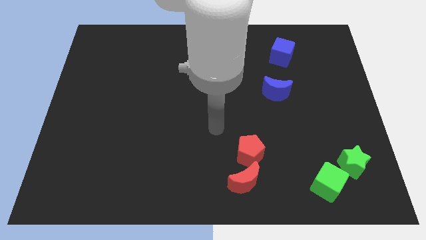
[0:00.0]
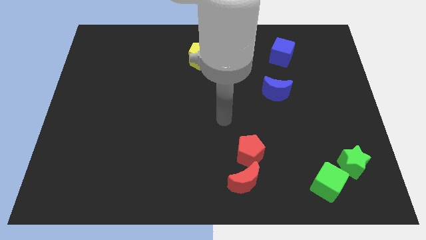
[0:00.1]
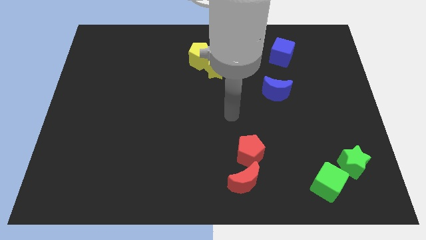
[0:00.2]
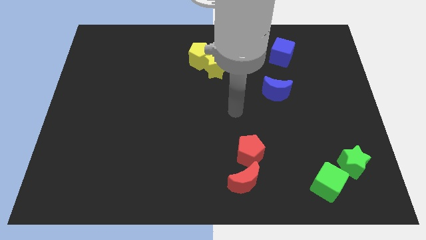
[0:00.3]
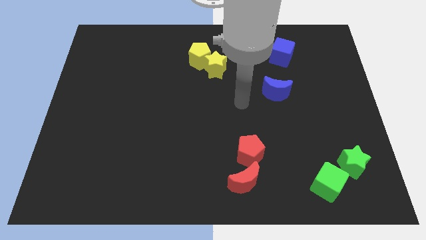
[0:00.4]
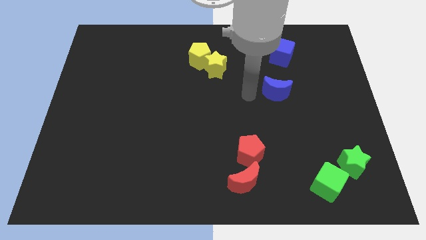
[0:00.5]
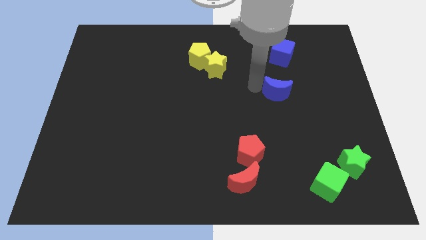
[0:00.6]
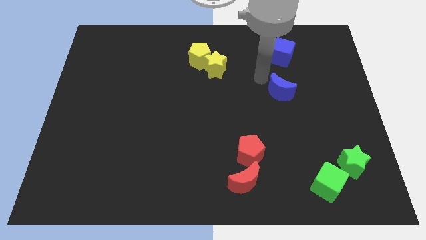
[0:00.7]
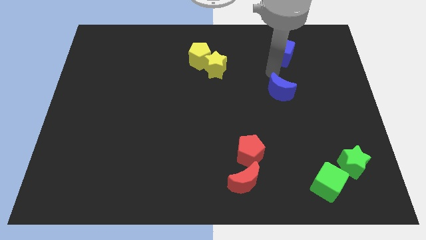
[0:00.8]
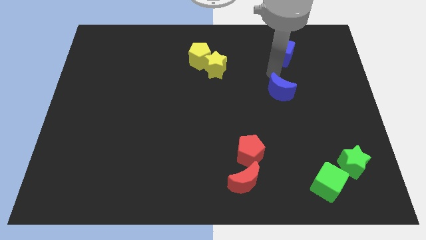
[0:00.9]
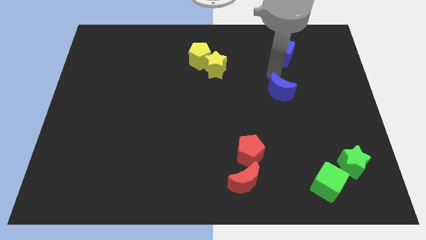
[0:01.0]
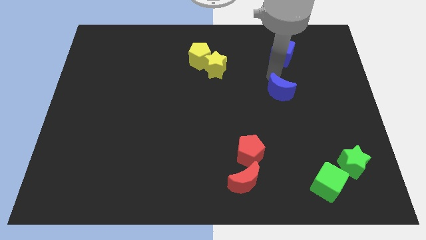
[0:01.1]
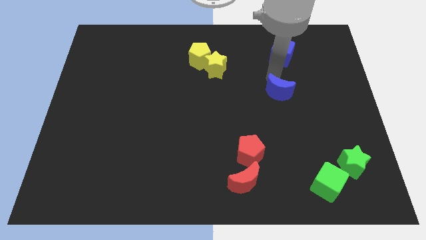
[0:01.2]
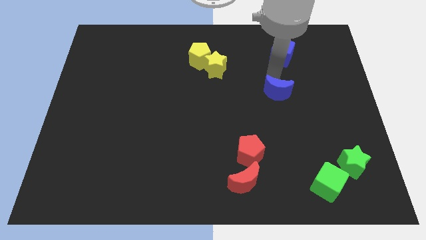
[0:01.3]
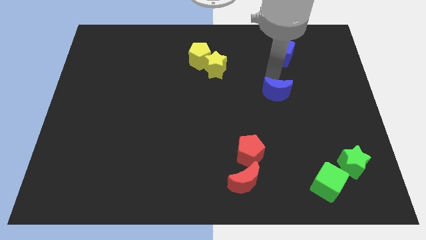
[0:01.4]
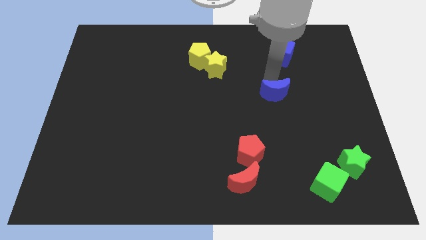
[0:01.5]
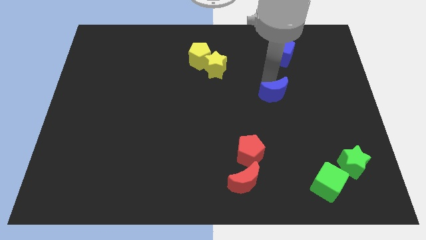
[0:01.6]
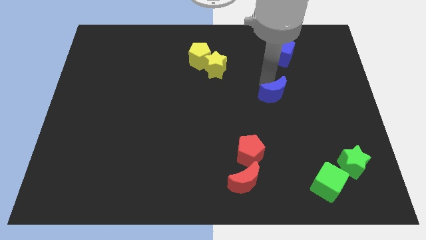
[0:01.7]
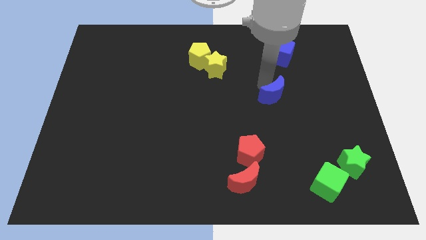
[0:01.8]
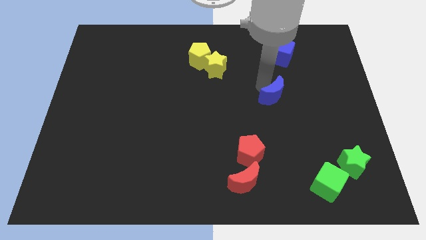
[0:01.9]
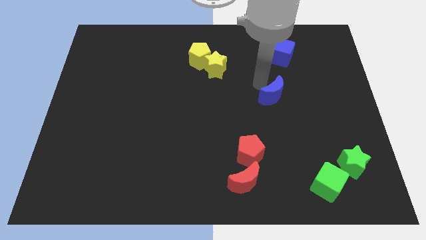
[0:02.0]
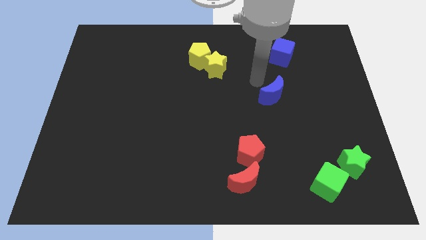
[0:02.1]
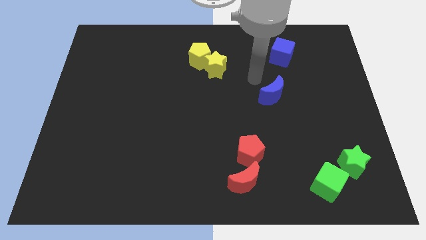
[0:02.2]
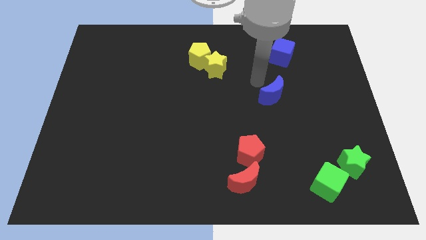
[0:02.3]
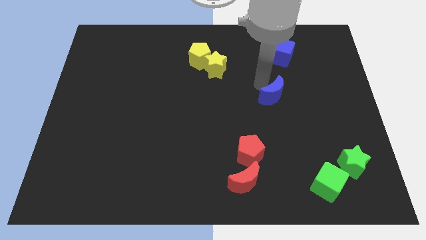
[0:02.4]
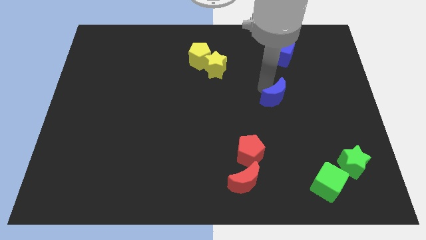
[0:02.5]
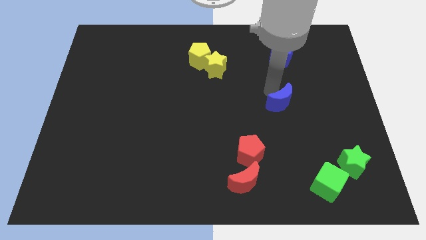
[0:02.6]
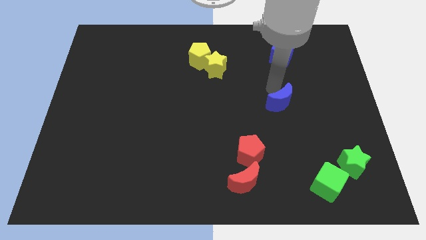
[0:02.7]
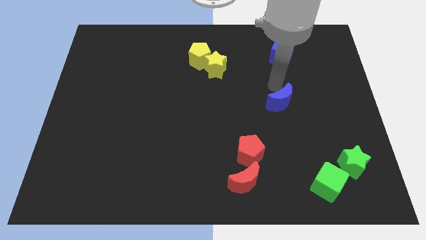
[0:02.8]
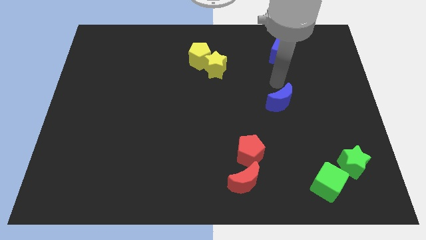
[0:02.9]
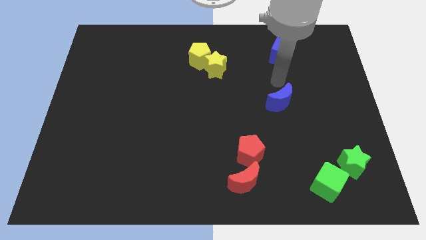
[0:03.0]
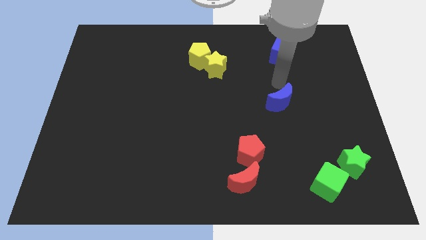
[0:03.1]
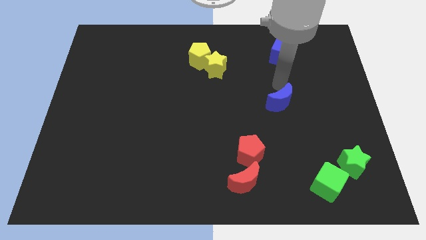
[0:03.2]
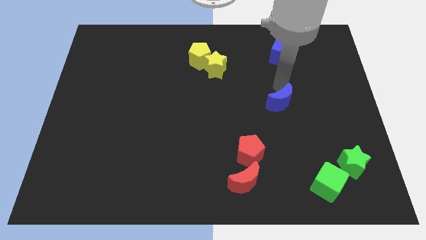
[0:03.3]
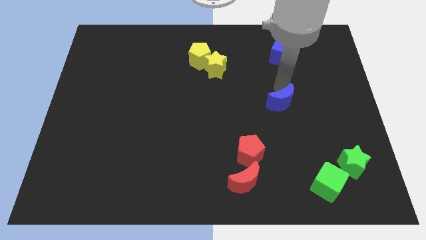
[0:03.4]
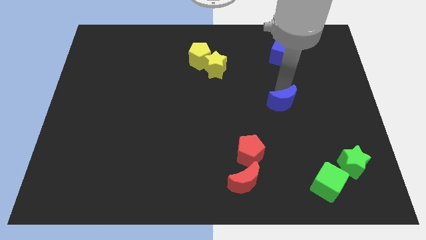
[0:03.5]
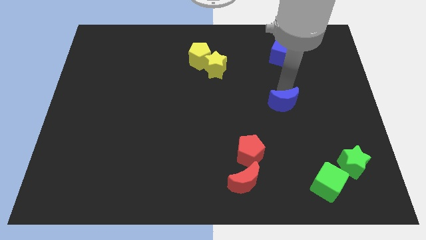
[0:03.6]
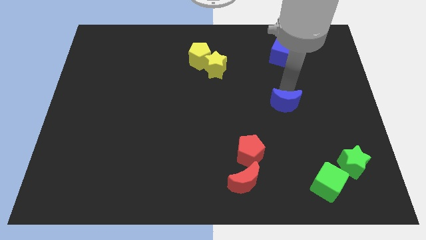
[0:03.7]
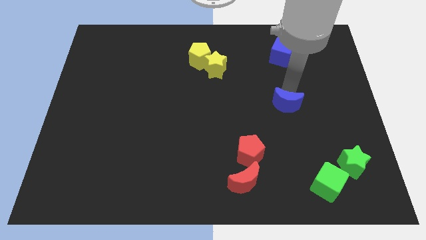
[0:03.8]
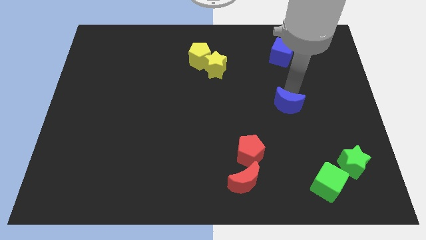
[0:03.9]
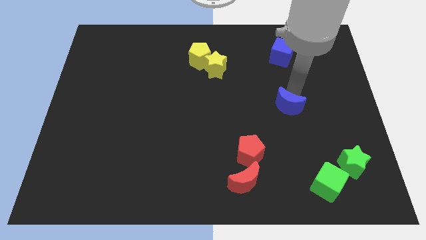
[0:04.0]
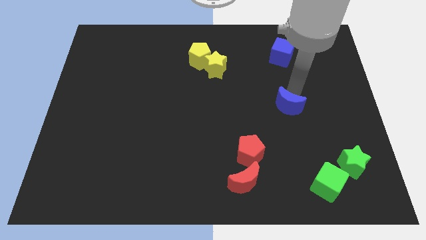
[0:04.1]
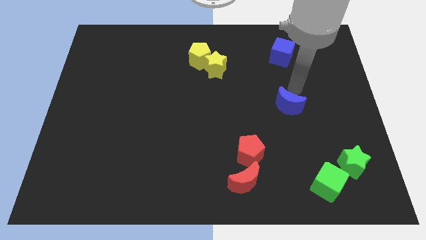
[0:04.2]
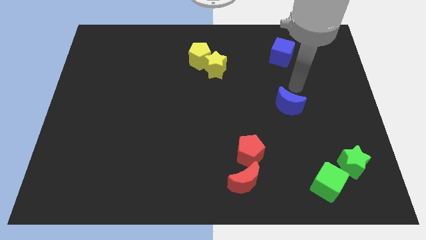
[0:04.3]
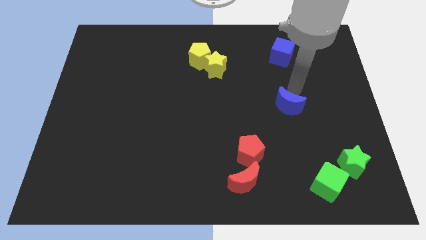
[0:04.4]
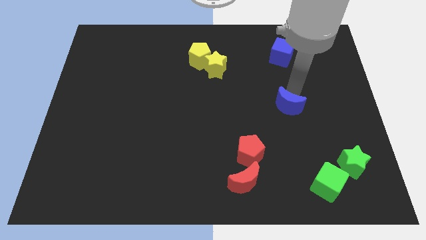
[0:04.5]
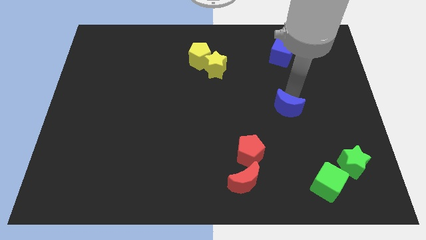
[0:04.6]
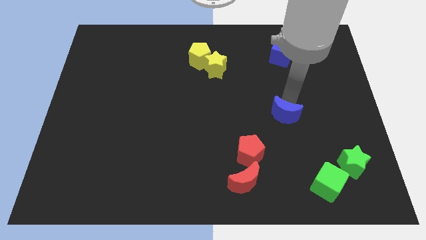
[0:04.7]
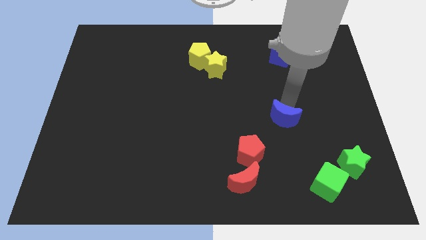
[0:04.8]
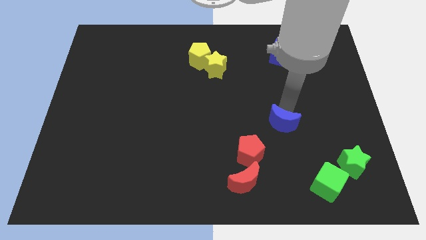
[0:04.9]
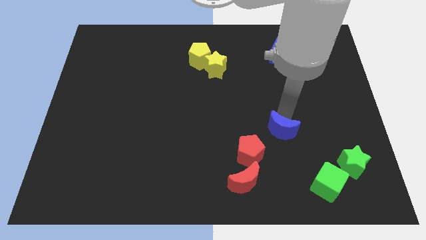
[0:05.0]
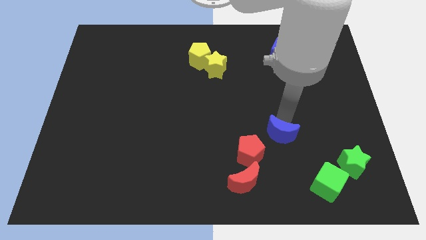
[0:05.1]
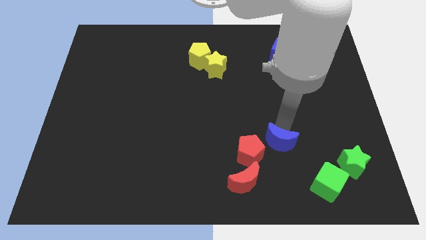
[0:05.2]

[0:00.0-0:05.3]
move the blue moon to the top right of the red moon
